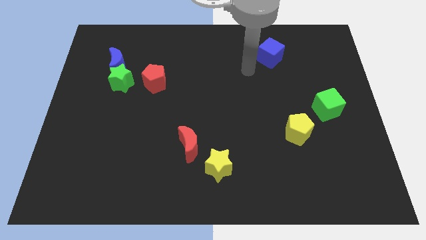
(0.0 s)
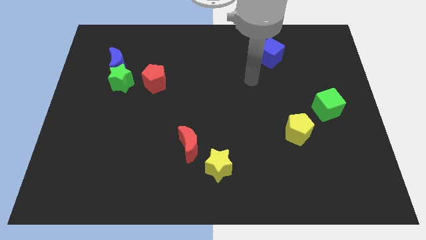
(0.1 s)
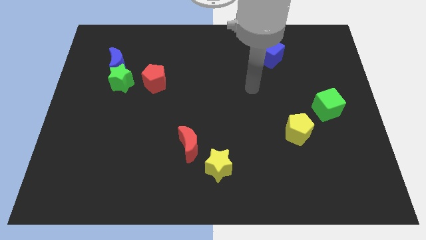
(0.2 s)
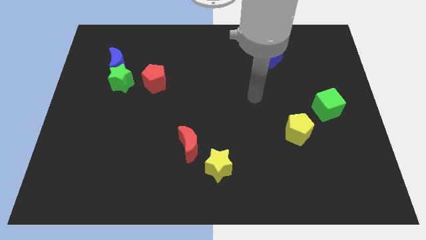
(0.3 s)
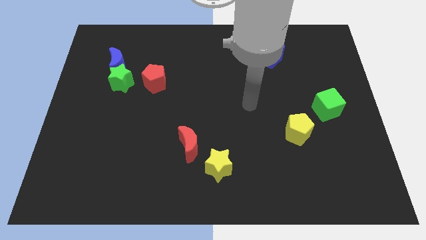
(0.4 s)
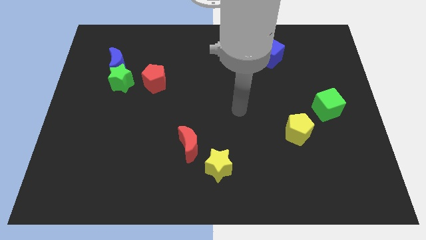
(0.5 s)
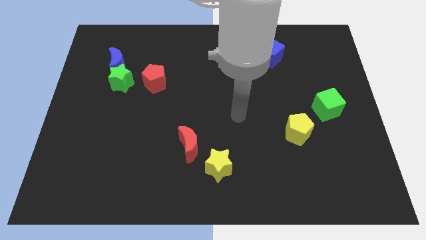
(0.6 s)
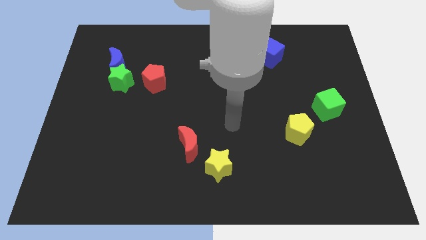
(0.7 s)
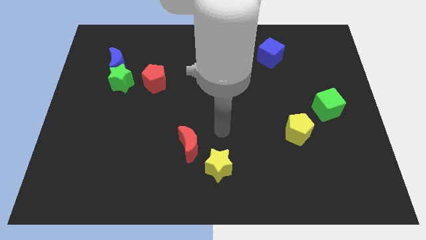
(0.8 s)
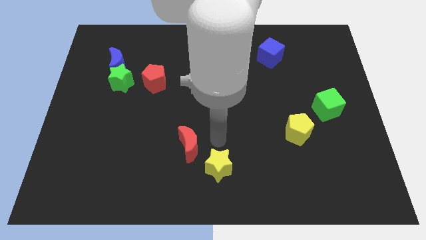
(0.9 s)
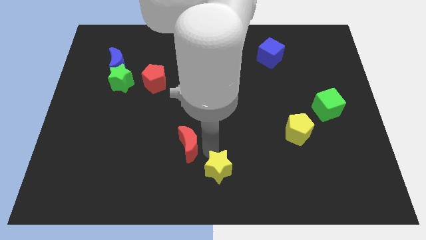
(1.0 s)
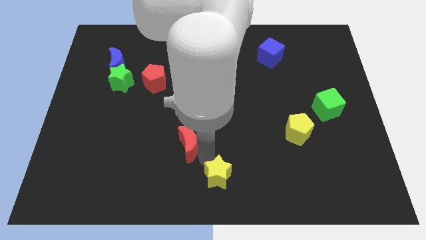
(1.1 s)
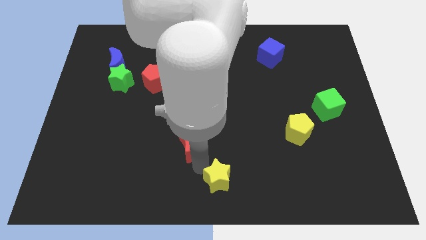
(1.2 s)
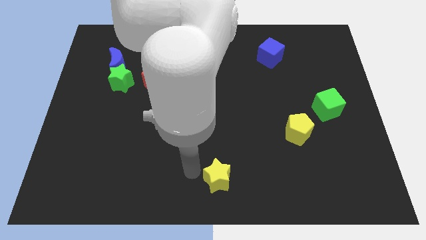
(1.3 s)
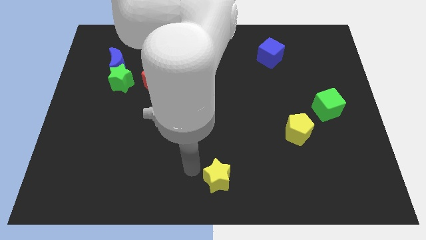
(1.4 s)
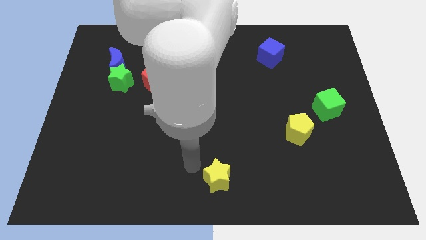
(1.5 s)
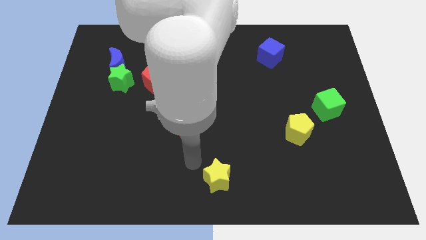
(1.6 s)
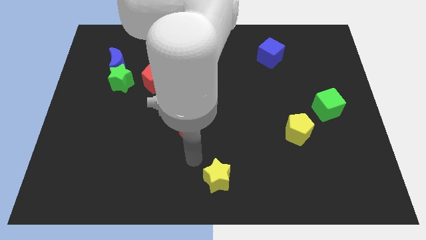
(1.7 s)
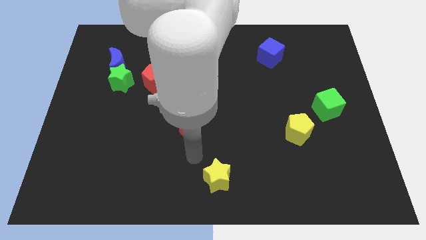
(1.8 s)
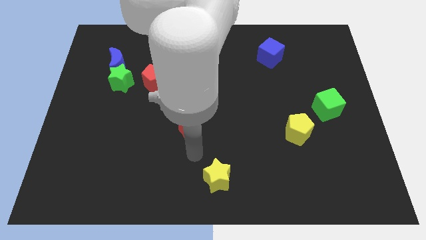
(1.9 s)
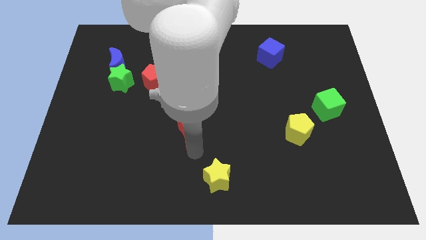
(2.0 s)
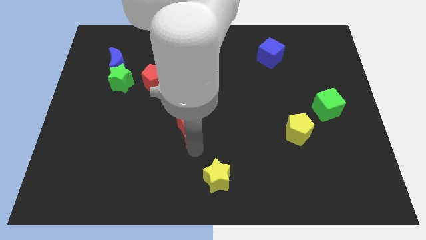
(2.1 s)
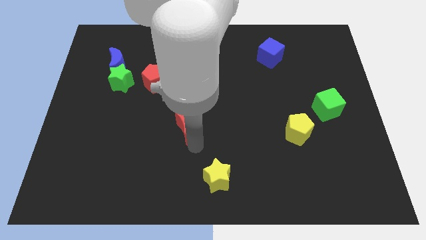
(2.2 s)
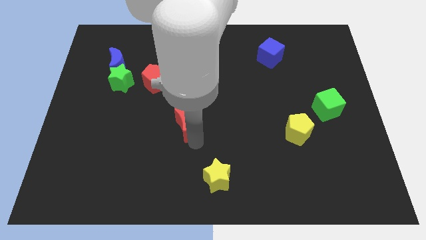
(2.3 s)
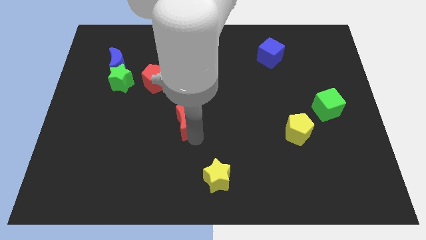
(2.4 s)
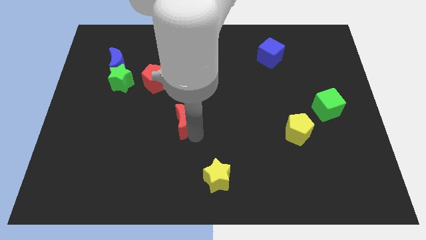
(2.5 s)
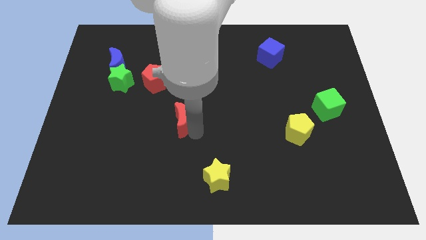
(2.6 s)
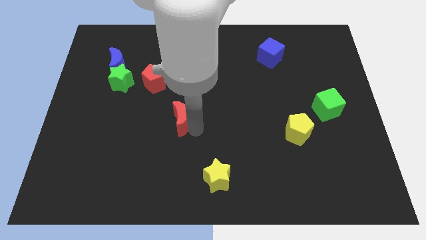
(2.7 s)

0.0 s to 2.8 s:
push the red moon somewhat upwards

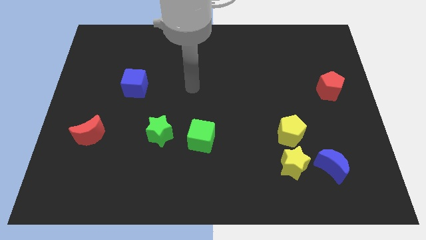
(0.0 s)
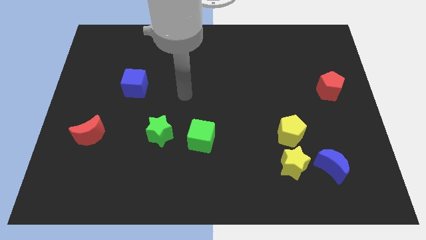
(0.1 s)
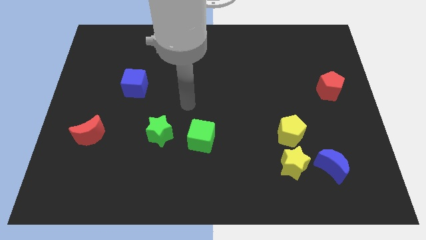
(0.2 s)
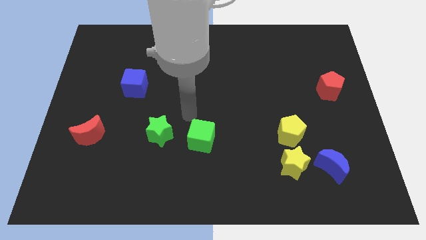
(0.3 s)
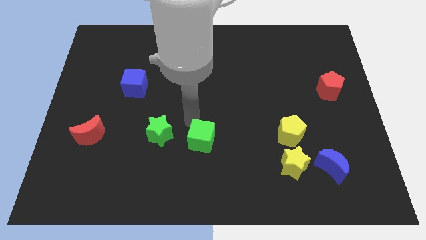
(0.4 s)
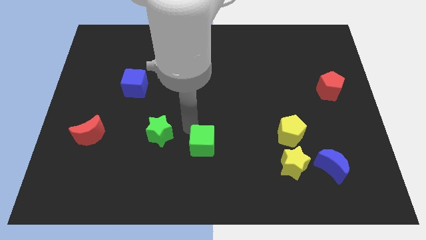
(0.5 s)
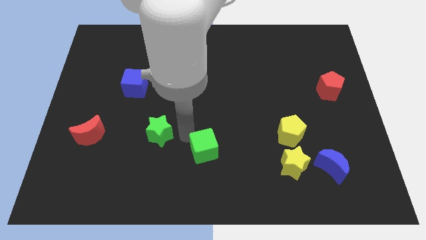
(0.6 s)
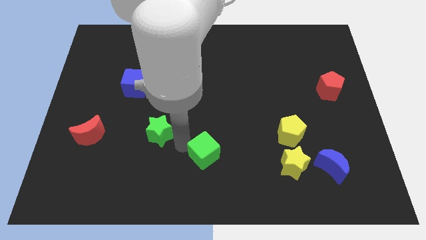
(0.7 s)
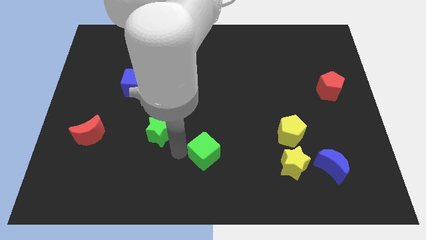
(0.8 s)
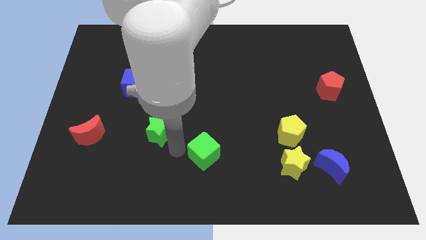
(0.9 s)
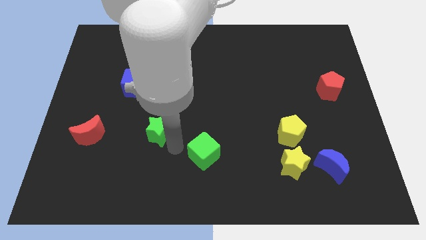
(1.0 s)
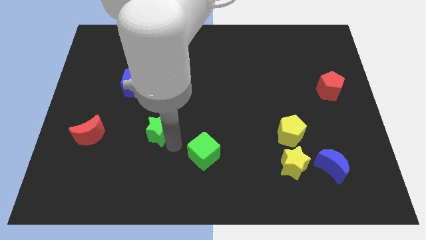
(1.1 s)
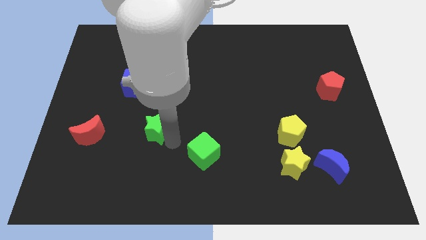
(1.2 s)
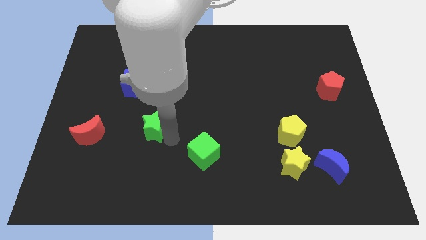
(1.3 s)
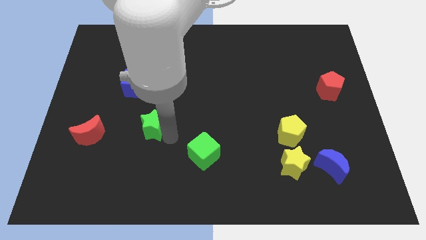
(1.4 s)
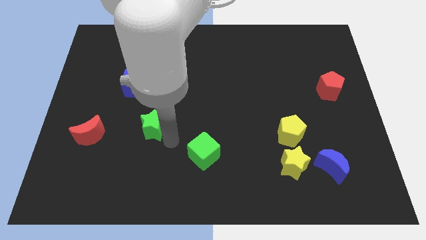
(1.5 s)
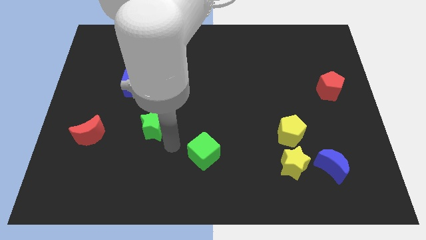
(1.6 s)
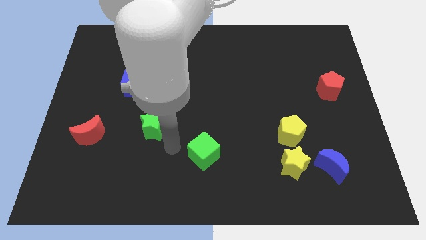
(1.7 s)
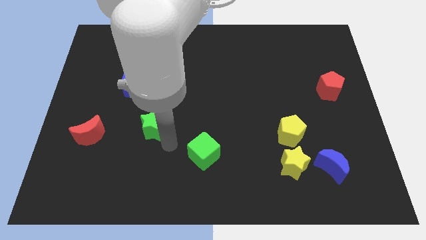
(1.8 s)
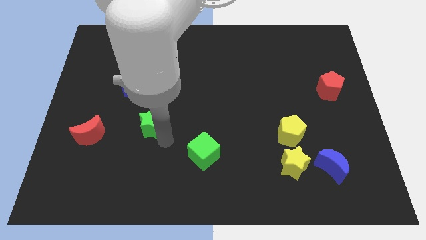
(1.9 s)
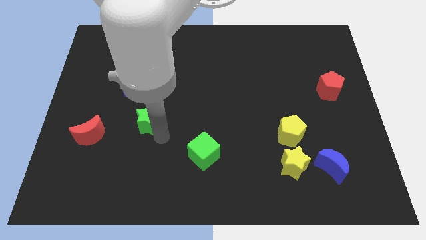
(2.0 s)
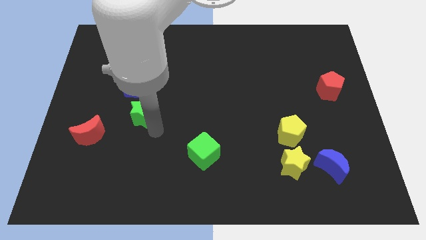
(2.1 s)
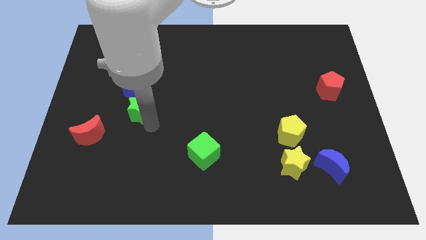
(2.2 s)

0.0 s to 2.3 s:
push the green star a bit upwards and to the left

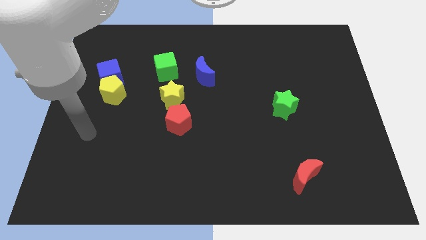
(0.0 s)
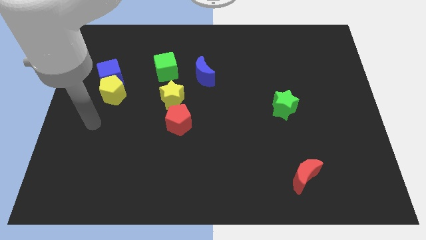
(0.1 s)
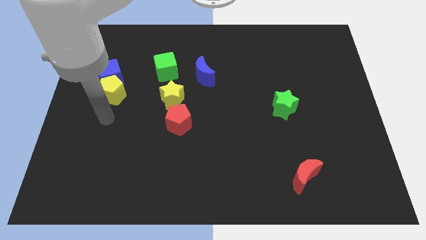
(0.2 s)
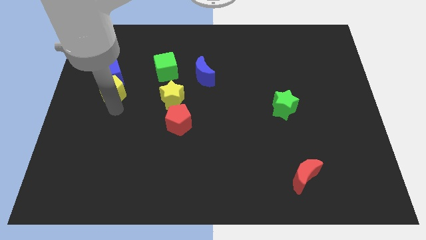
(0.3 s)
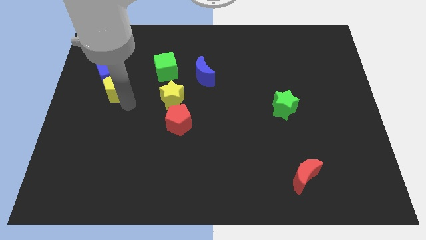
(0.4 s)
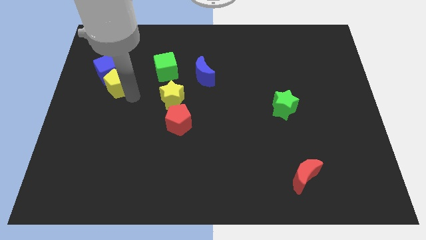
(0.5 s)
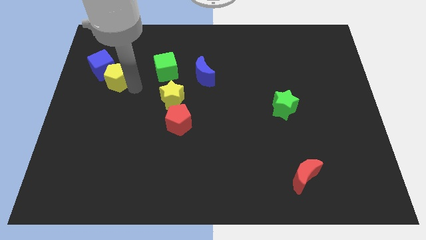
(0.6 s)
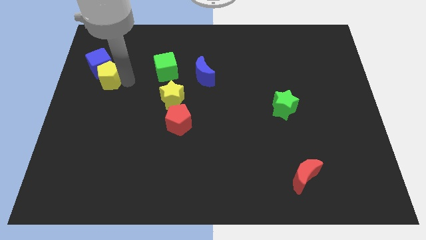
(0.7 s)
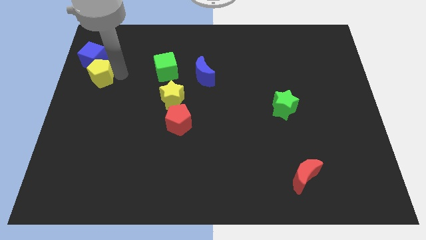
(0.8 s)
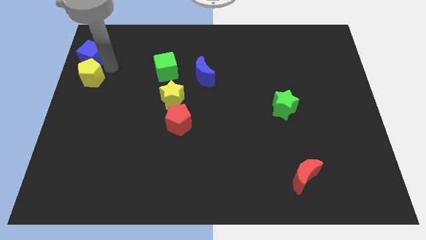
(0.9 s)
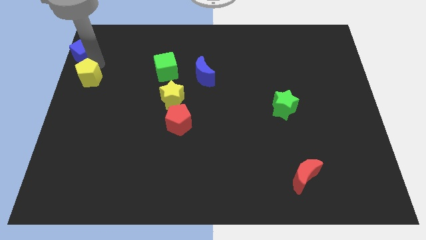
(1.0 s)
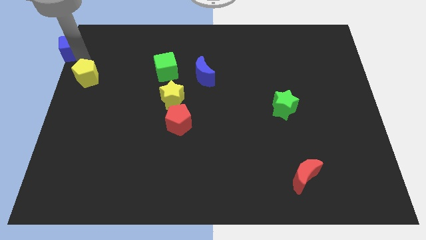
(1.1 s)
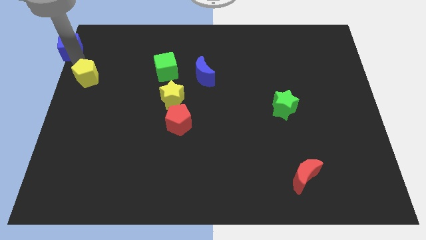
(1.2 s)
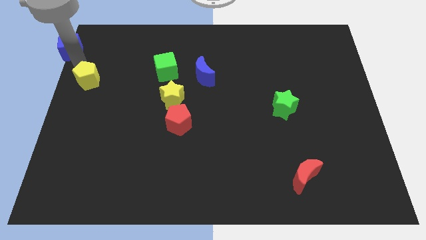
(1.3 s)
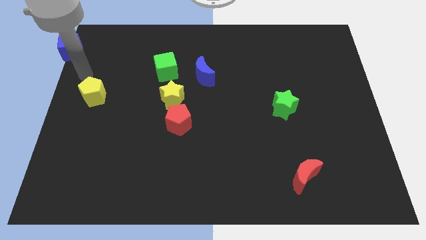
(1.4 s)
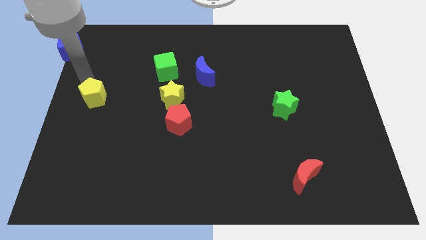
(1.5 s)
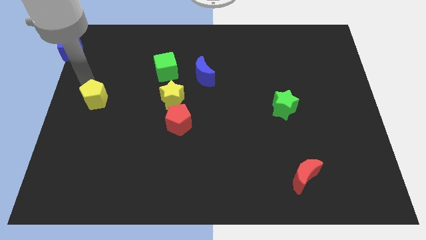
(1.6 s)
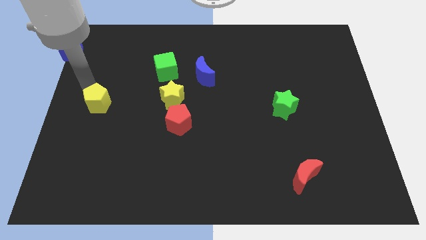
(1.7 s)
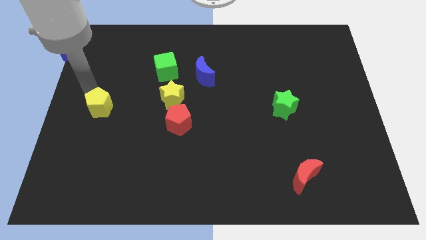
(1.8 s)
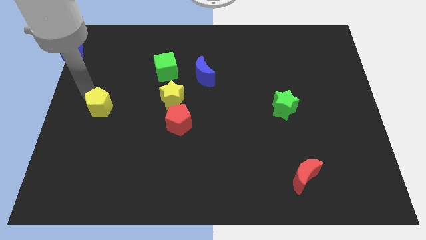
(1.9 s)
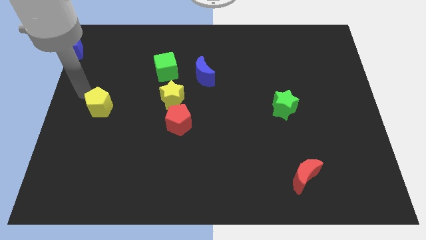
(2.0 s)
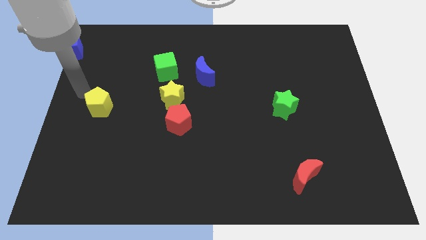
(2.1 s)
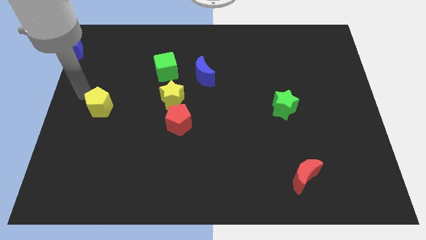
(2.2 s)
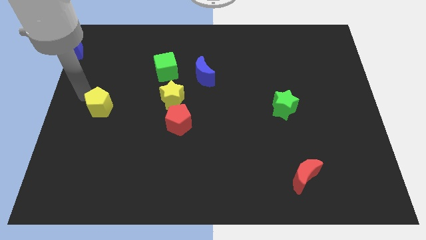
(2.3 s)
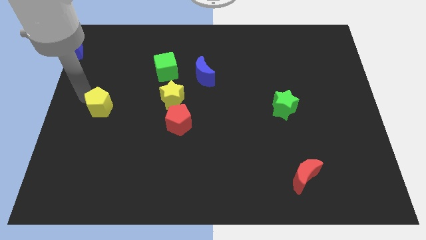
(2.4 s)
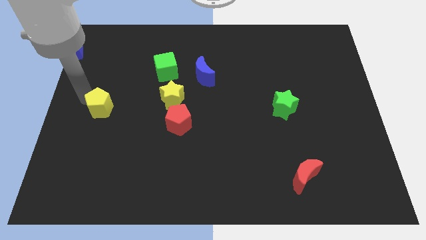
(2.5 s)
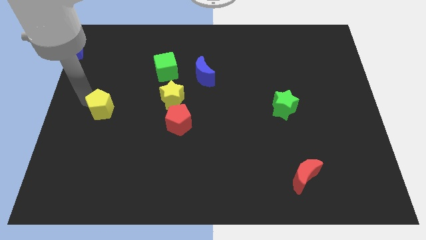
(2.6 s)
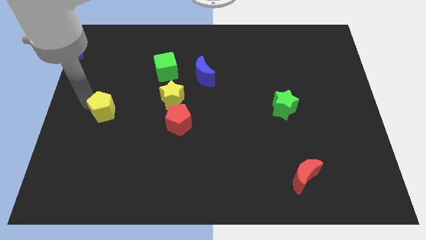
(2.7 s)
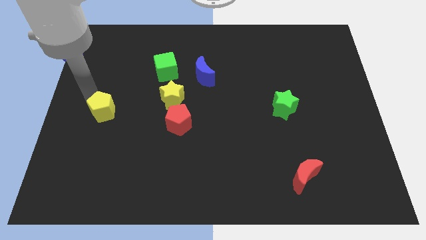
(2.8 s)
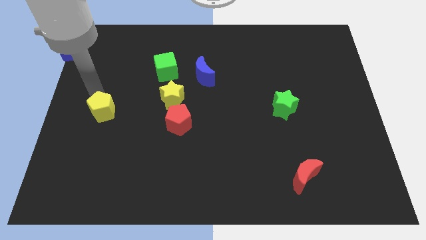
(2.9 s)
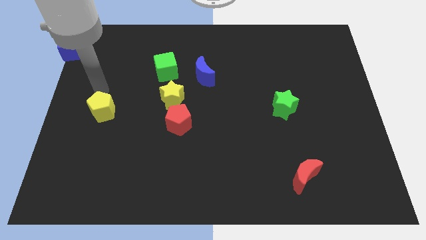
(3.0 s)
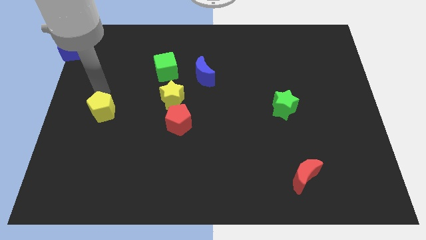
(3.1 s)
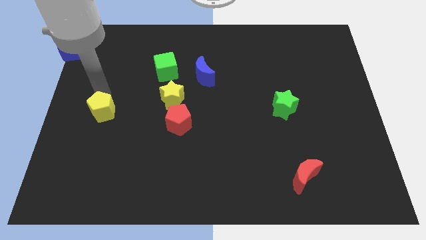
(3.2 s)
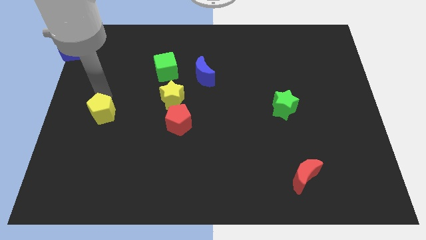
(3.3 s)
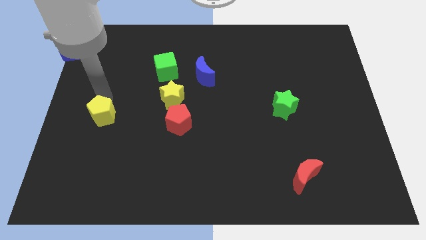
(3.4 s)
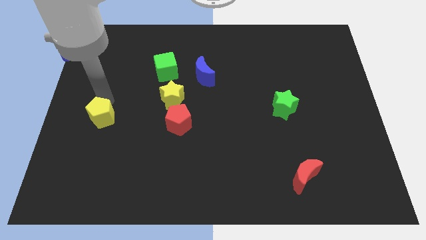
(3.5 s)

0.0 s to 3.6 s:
move the yellow pentagon down a little bit
